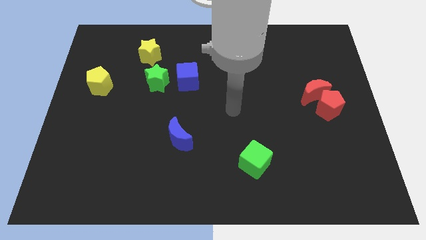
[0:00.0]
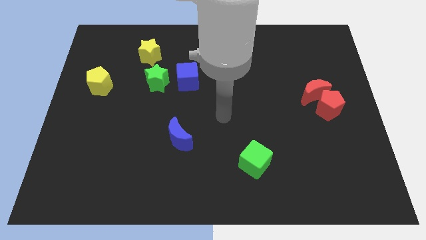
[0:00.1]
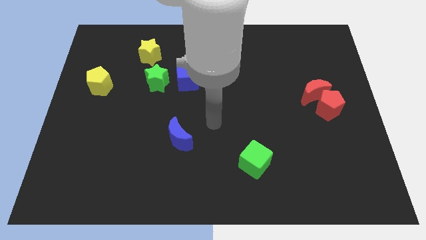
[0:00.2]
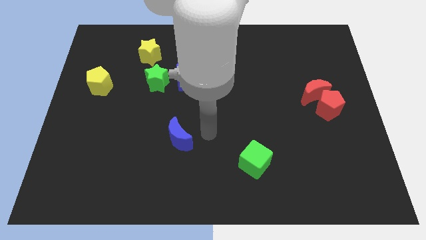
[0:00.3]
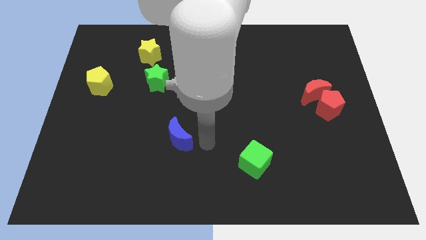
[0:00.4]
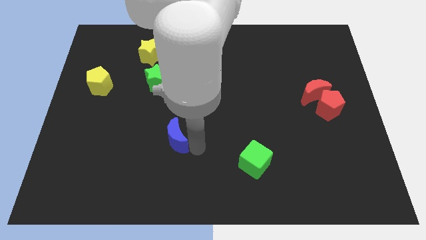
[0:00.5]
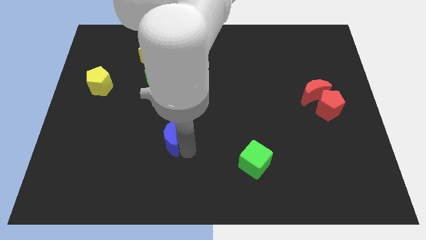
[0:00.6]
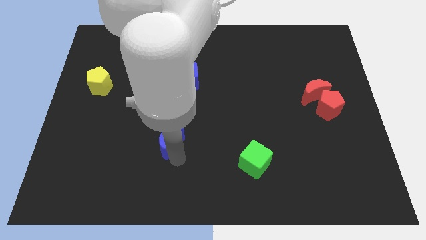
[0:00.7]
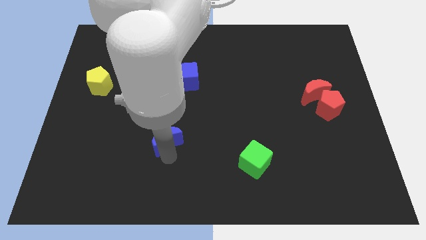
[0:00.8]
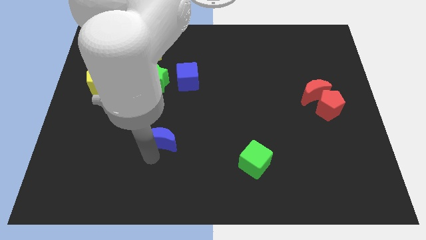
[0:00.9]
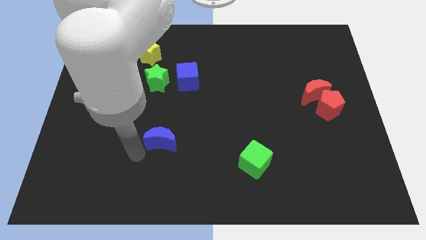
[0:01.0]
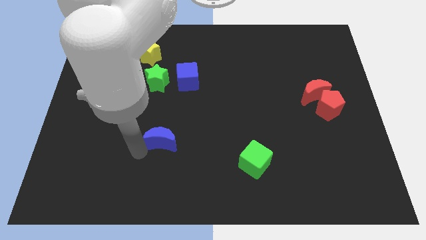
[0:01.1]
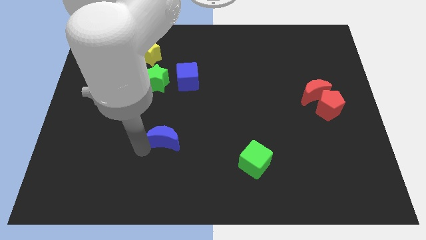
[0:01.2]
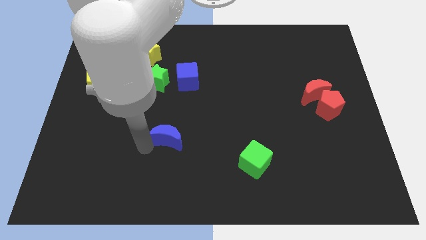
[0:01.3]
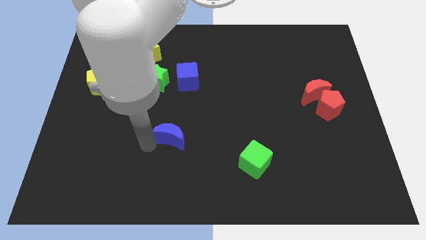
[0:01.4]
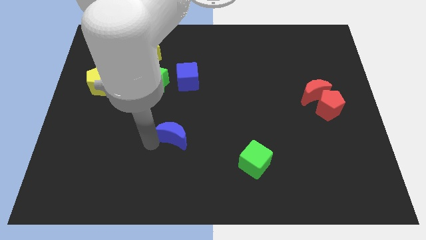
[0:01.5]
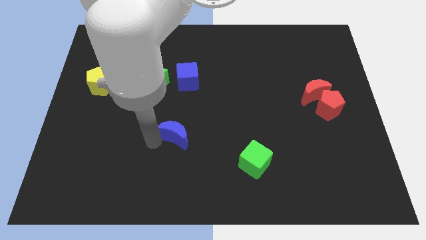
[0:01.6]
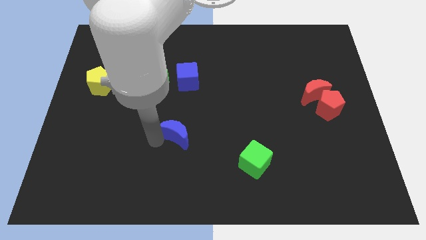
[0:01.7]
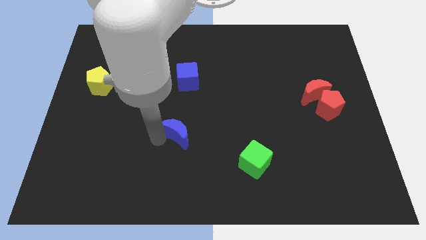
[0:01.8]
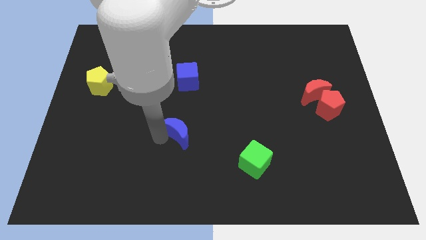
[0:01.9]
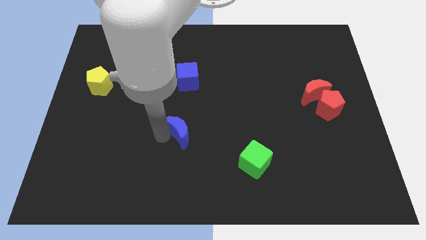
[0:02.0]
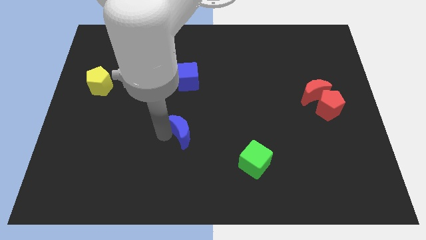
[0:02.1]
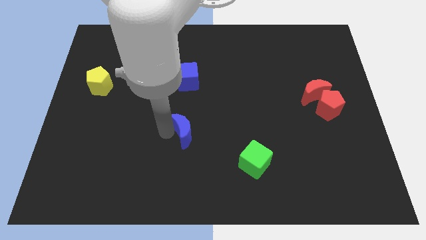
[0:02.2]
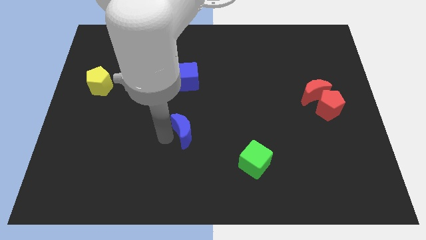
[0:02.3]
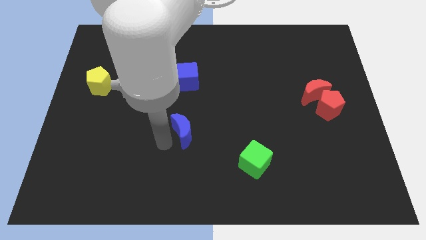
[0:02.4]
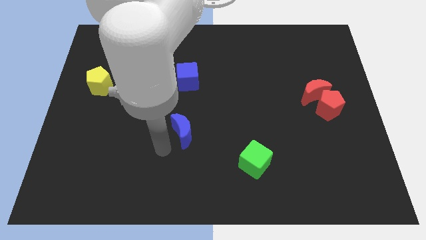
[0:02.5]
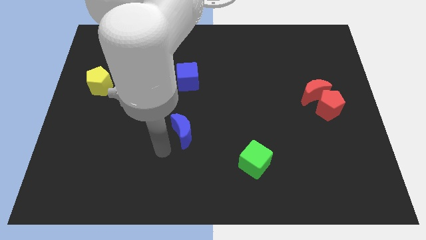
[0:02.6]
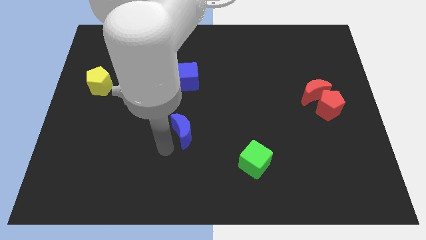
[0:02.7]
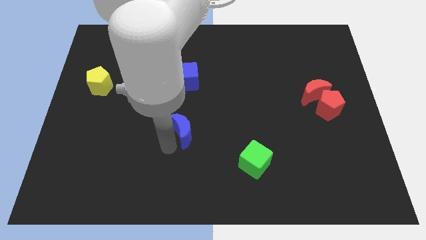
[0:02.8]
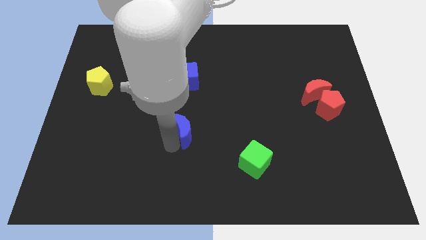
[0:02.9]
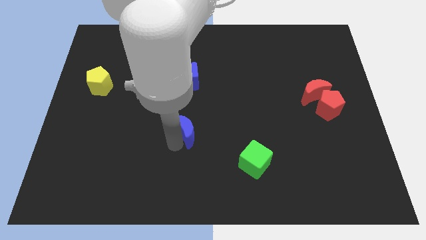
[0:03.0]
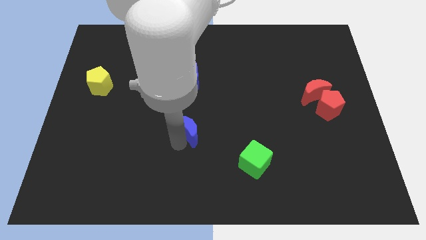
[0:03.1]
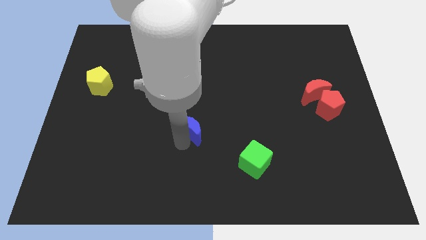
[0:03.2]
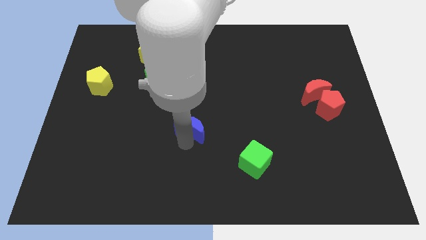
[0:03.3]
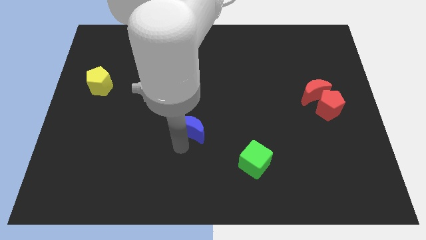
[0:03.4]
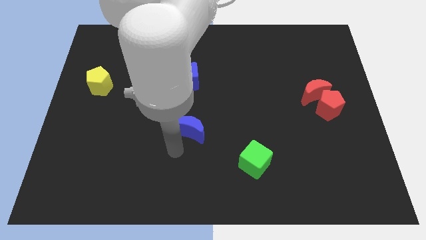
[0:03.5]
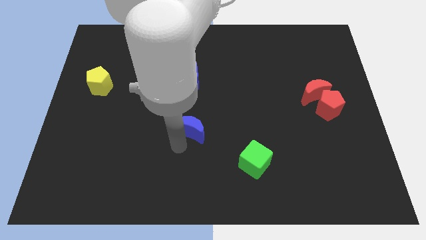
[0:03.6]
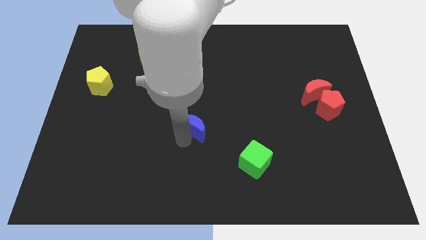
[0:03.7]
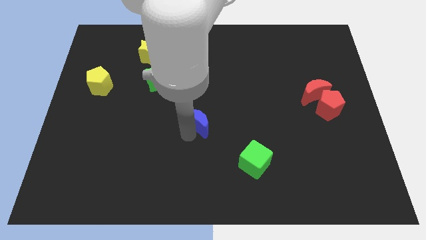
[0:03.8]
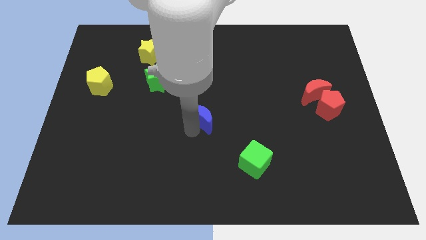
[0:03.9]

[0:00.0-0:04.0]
slightly slide the blue moon diagonally up and to the right

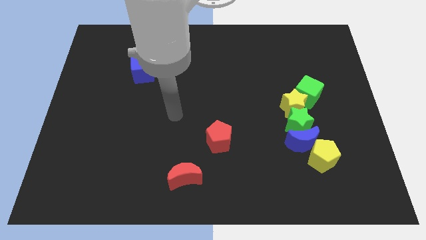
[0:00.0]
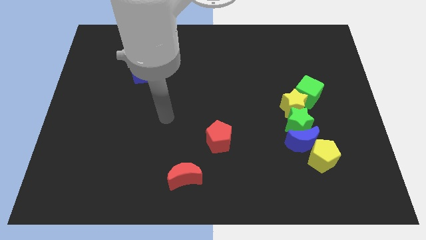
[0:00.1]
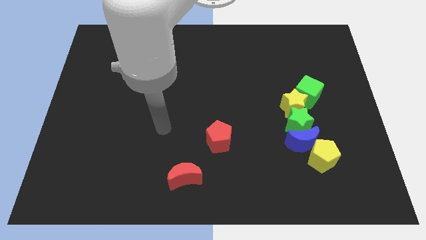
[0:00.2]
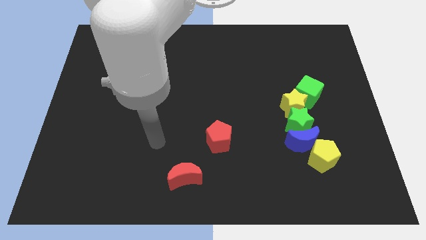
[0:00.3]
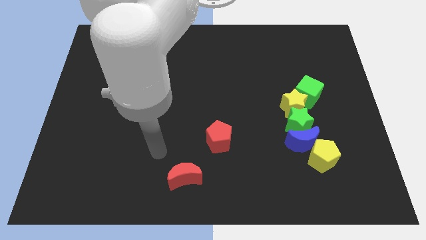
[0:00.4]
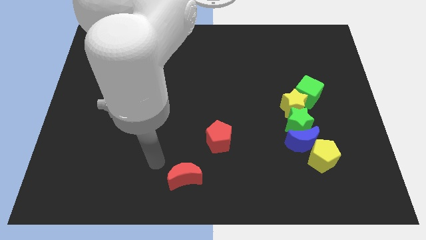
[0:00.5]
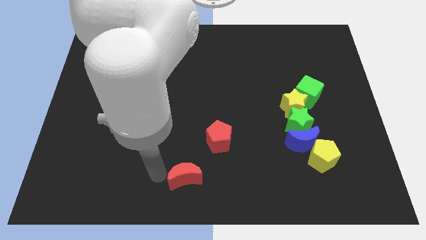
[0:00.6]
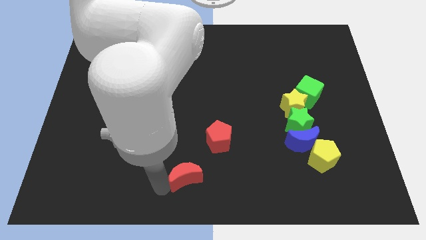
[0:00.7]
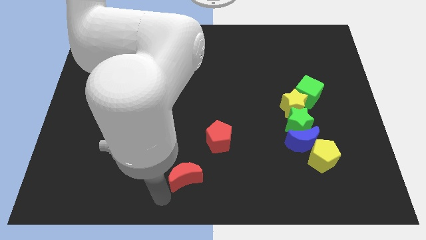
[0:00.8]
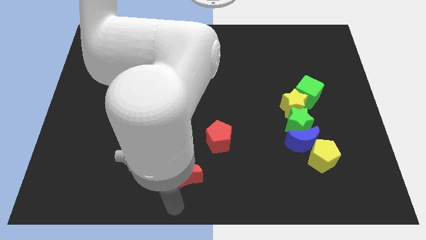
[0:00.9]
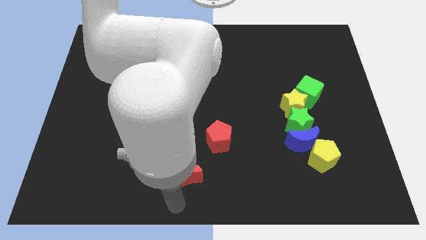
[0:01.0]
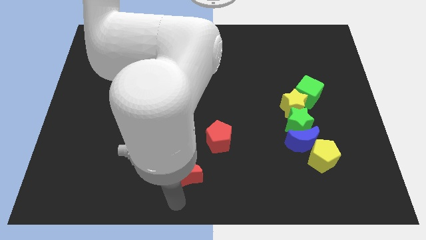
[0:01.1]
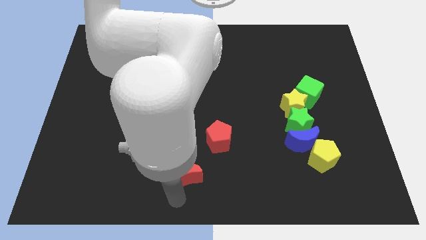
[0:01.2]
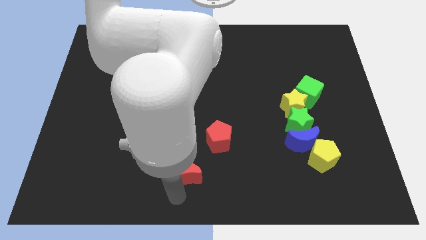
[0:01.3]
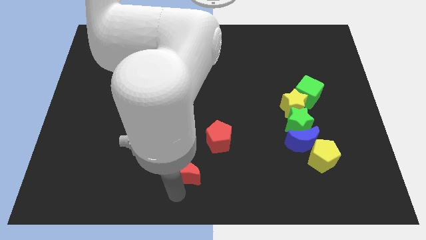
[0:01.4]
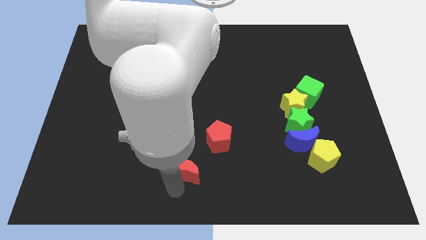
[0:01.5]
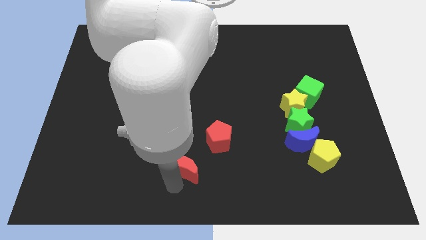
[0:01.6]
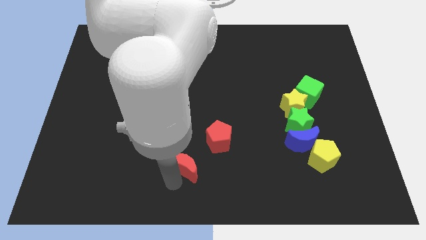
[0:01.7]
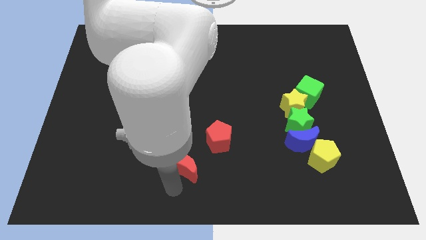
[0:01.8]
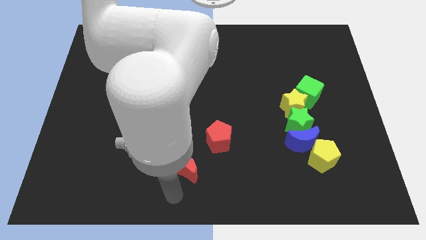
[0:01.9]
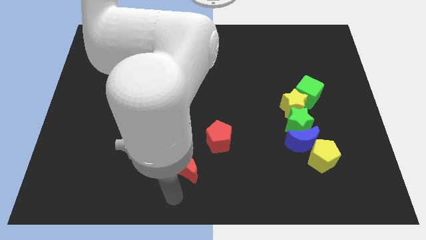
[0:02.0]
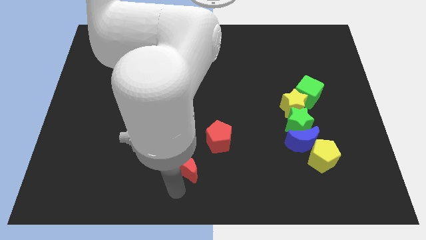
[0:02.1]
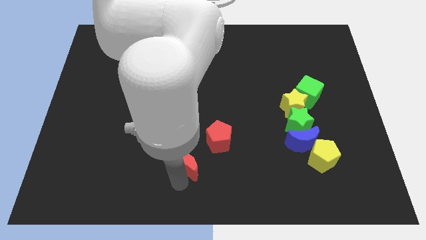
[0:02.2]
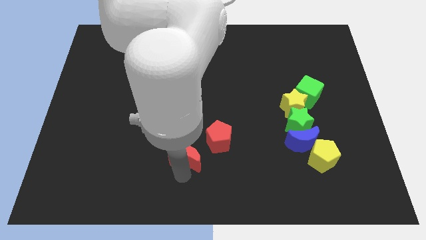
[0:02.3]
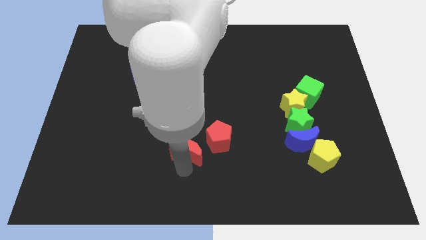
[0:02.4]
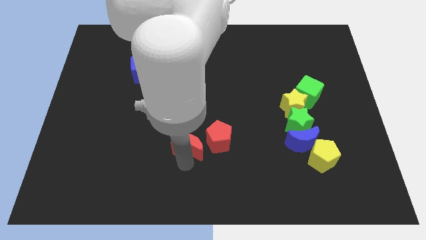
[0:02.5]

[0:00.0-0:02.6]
move the red moon a little up

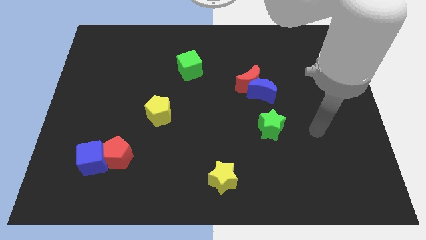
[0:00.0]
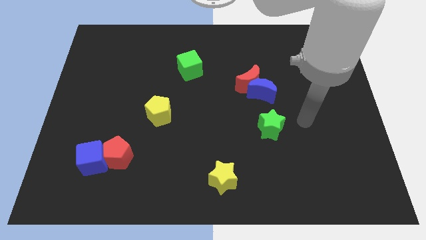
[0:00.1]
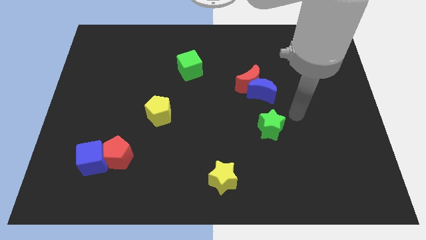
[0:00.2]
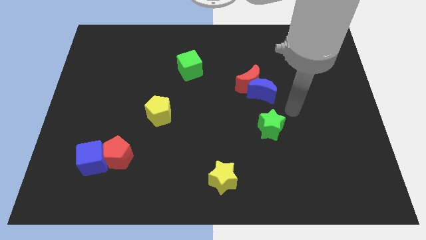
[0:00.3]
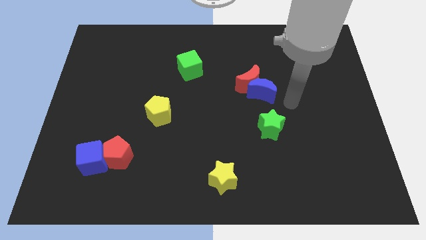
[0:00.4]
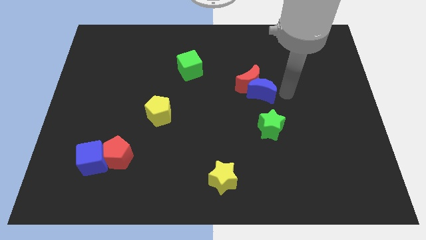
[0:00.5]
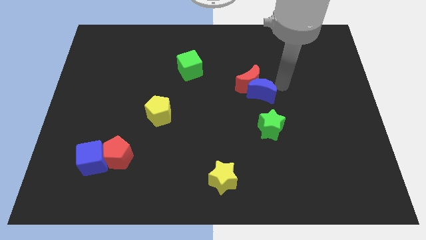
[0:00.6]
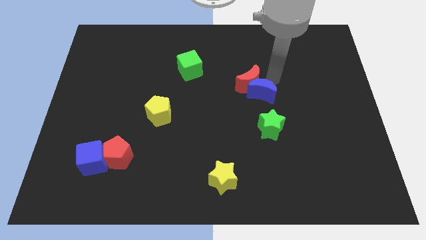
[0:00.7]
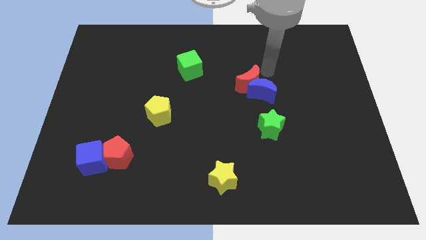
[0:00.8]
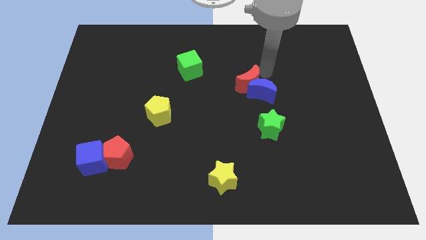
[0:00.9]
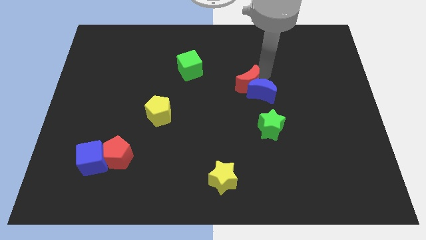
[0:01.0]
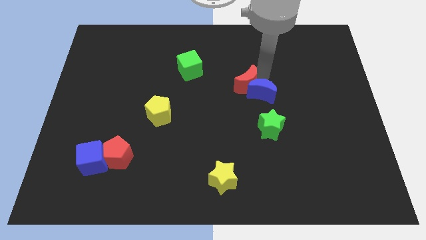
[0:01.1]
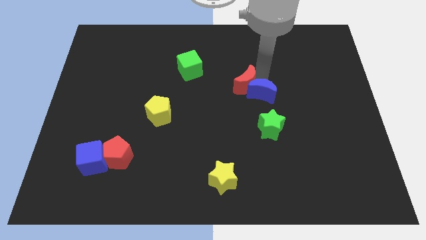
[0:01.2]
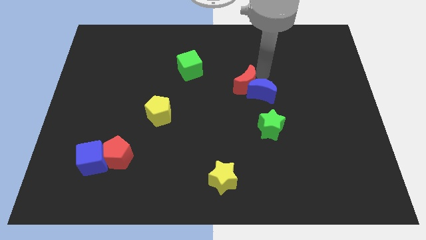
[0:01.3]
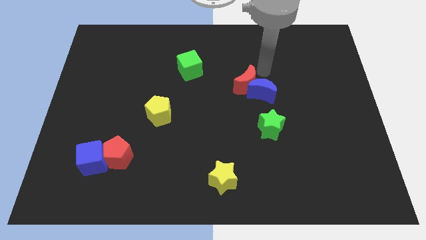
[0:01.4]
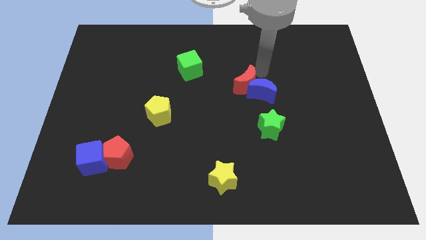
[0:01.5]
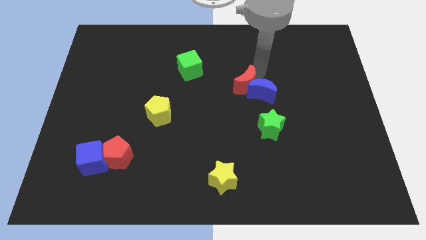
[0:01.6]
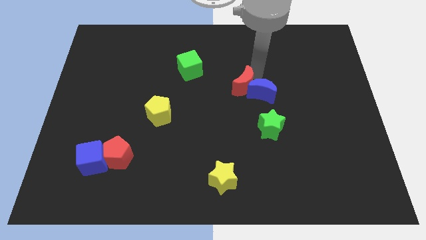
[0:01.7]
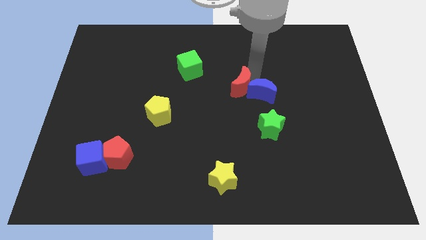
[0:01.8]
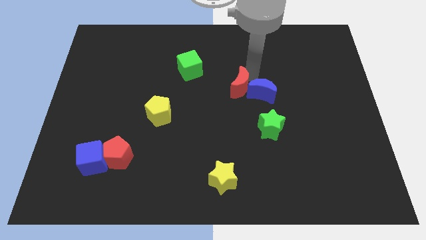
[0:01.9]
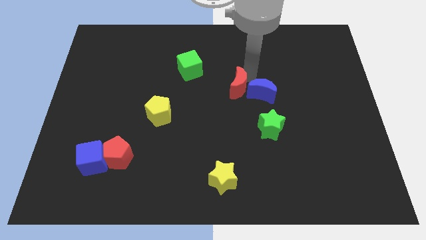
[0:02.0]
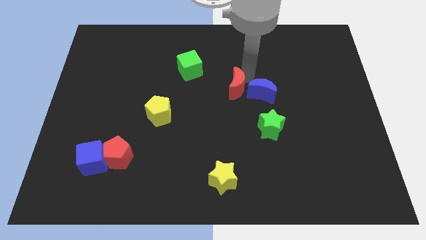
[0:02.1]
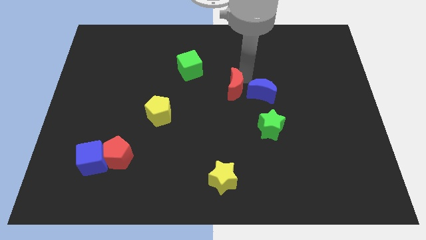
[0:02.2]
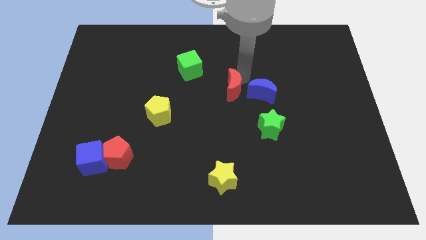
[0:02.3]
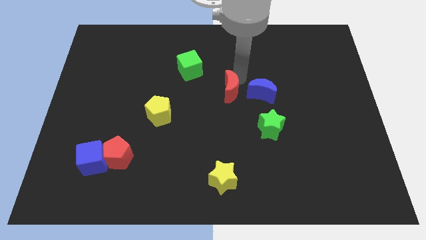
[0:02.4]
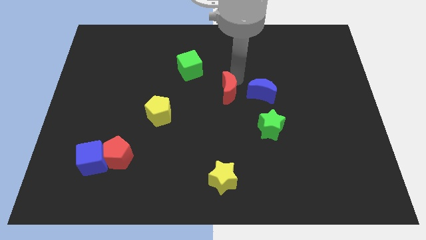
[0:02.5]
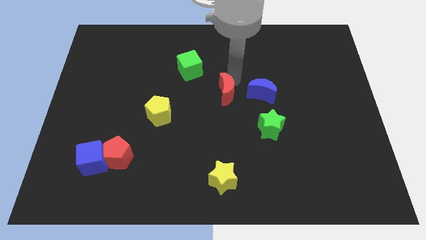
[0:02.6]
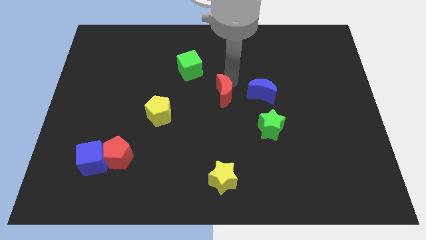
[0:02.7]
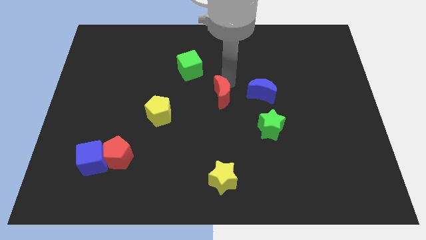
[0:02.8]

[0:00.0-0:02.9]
push the red moon downwards and then to the left slightly
